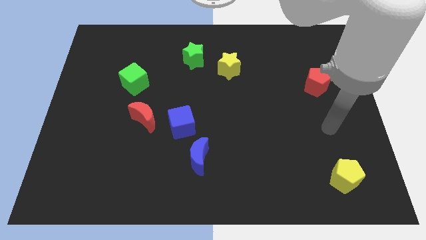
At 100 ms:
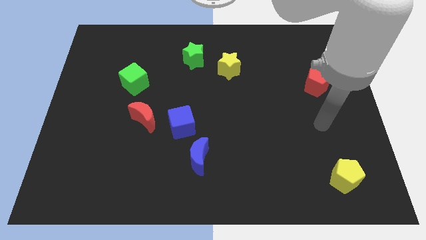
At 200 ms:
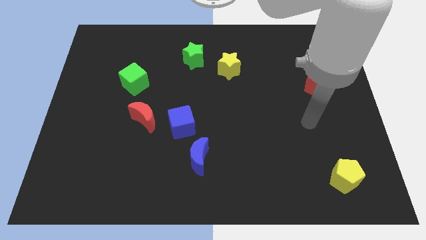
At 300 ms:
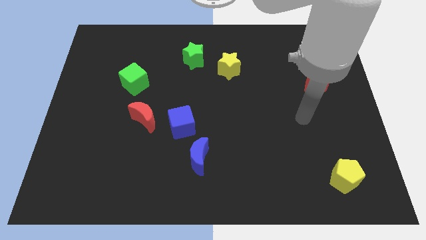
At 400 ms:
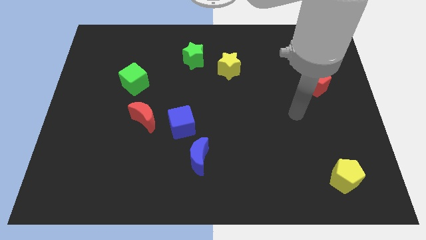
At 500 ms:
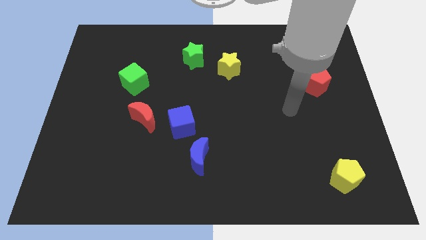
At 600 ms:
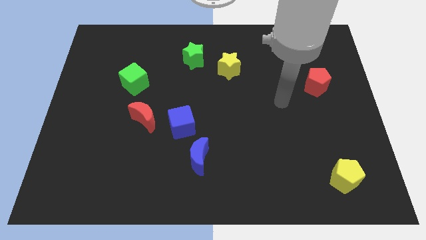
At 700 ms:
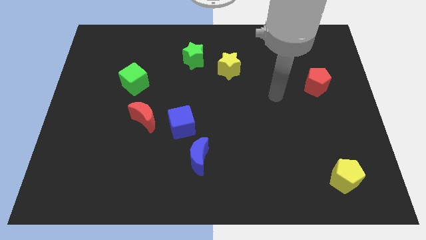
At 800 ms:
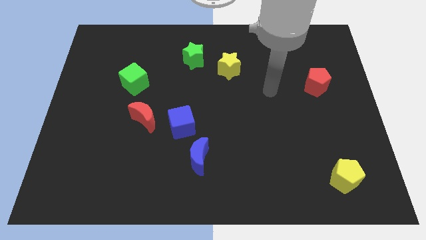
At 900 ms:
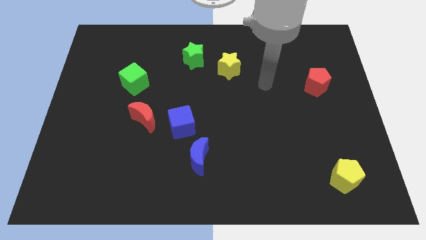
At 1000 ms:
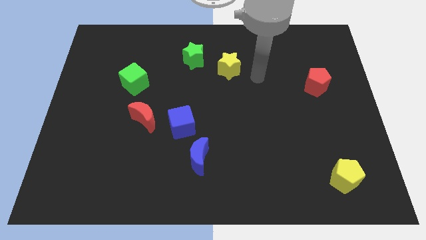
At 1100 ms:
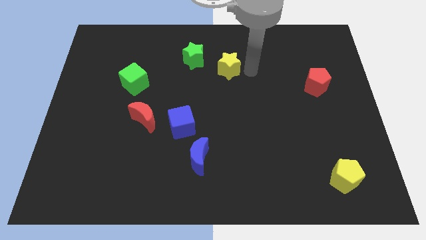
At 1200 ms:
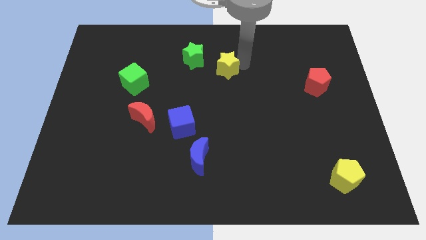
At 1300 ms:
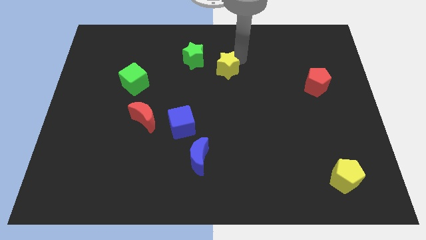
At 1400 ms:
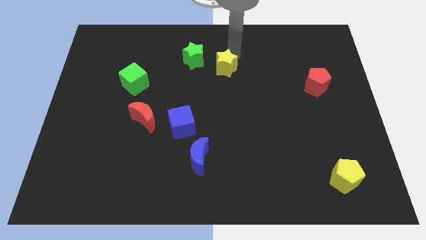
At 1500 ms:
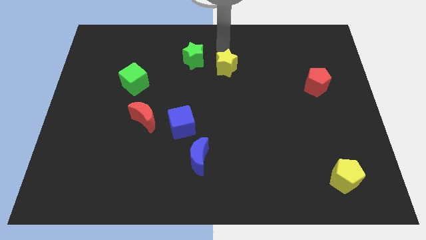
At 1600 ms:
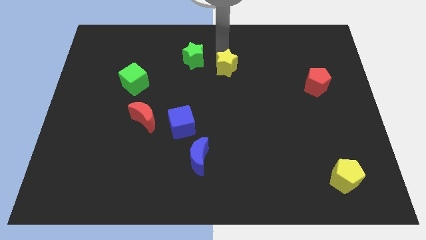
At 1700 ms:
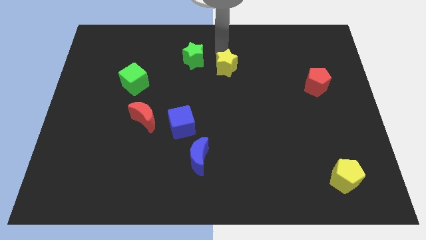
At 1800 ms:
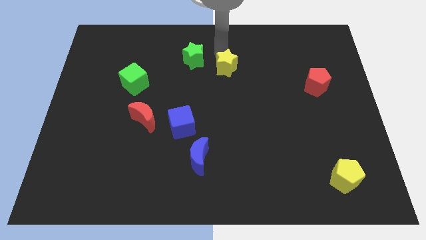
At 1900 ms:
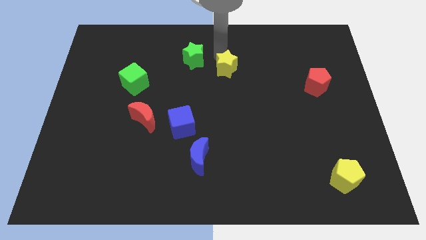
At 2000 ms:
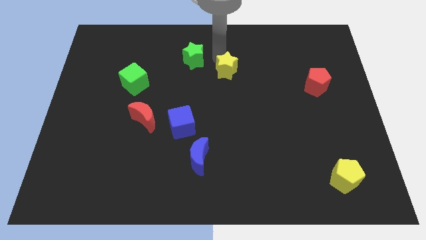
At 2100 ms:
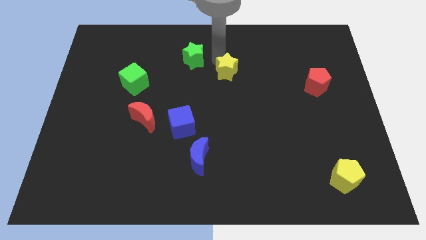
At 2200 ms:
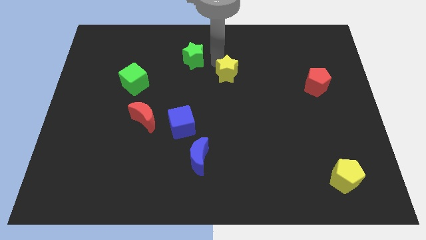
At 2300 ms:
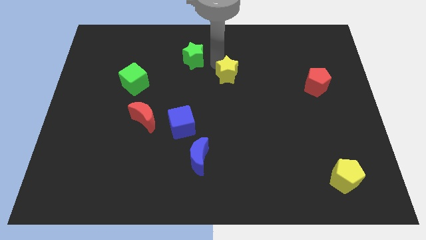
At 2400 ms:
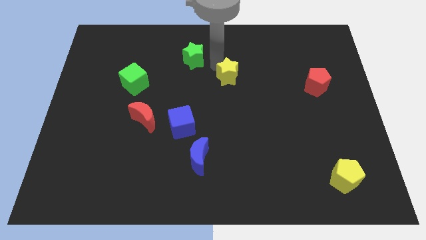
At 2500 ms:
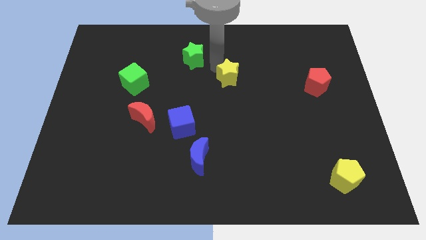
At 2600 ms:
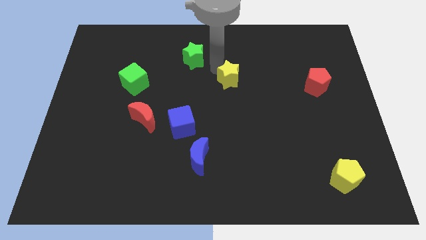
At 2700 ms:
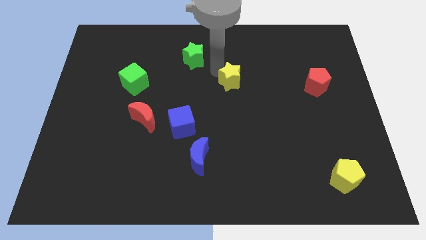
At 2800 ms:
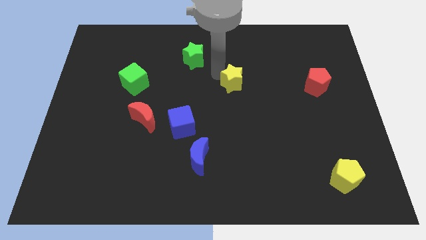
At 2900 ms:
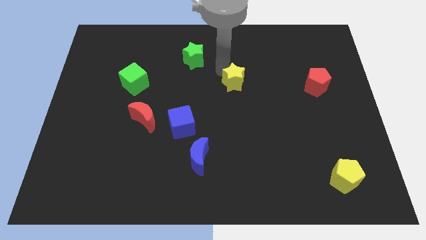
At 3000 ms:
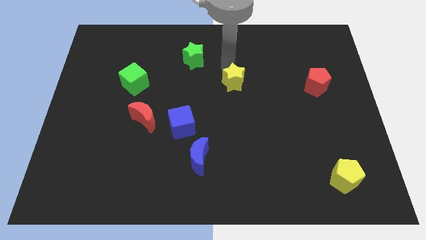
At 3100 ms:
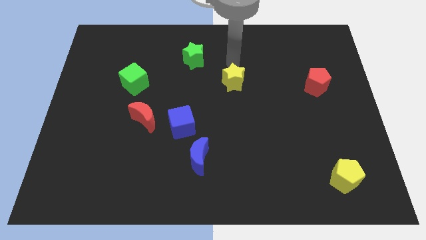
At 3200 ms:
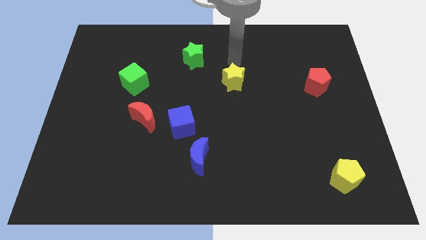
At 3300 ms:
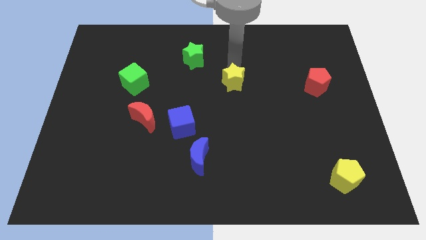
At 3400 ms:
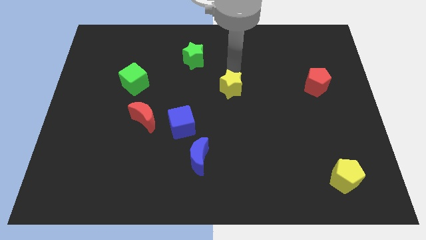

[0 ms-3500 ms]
slightly slide the yellow star down

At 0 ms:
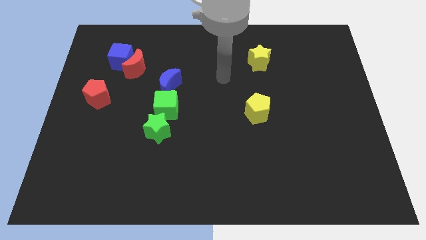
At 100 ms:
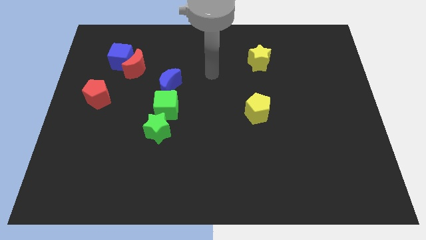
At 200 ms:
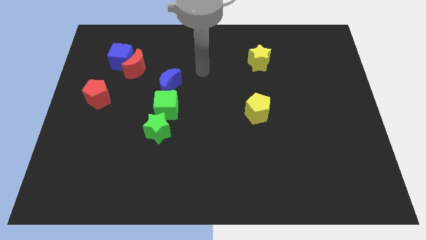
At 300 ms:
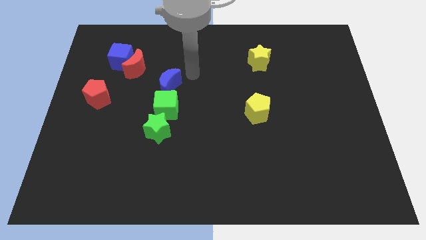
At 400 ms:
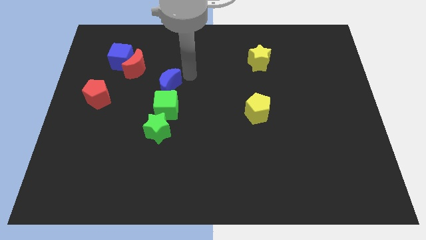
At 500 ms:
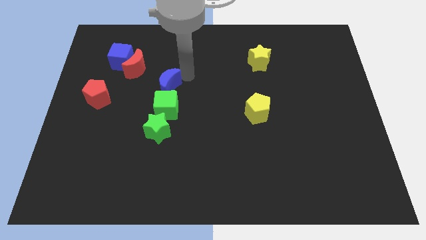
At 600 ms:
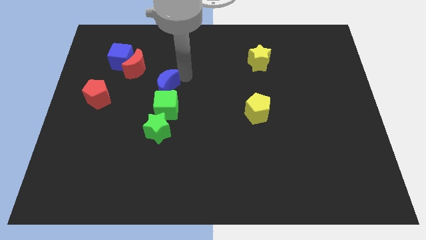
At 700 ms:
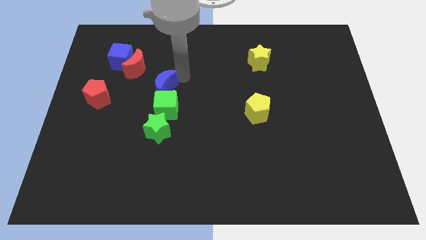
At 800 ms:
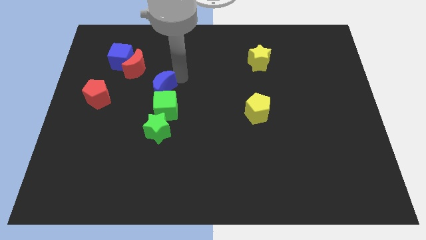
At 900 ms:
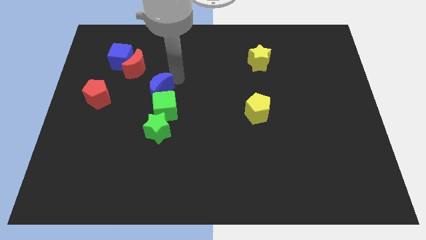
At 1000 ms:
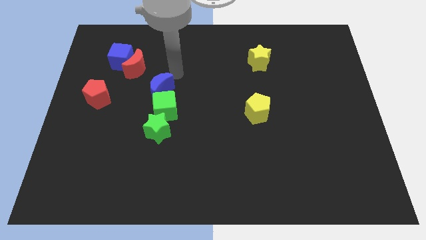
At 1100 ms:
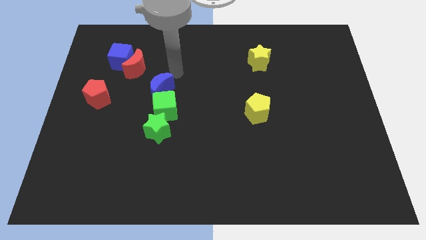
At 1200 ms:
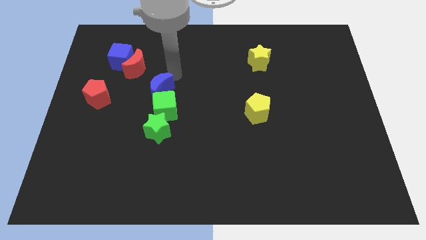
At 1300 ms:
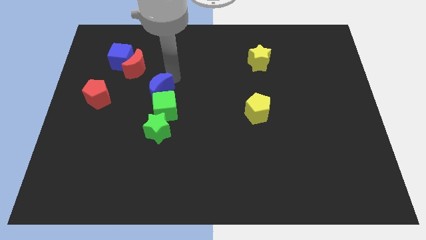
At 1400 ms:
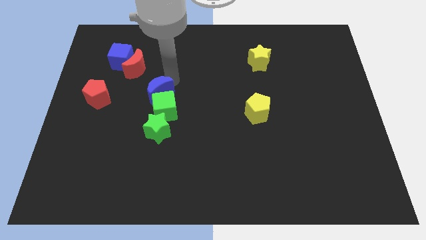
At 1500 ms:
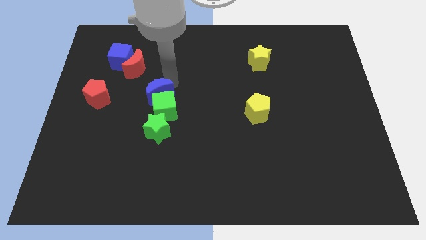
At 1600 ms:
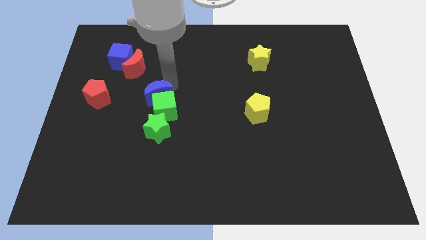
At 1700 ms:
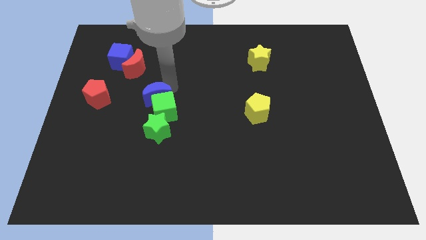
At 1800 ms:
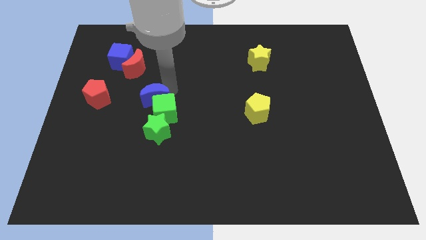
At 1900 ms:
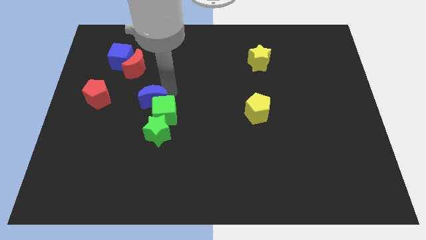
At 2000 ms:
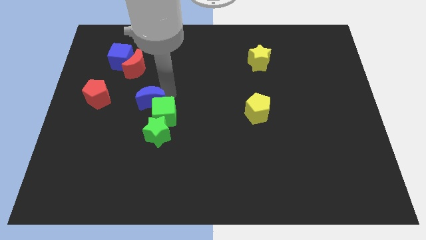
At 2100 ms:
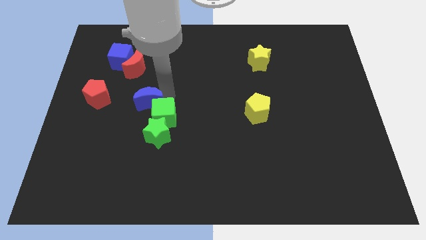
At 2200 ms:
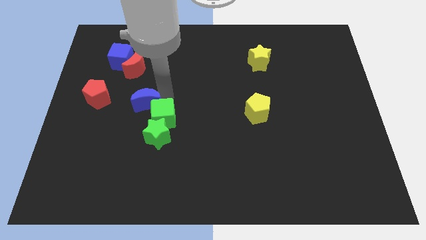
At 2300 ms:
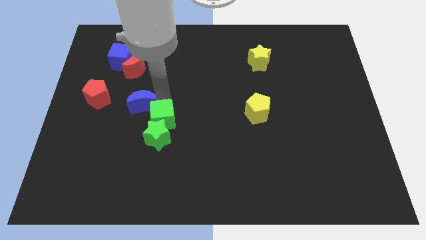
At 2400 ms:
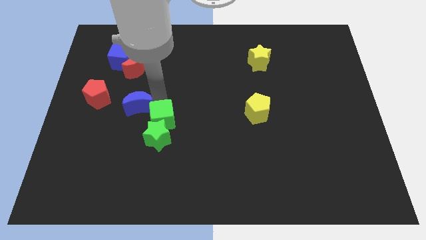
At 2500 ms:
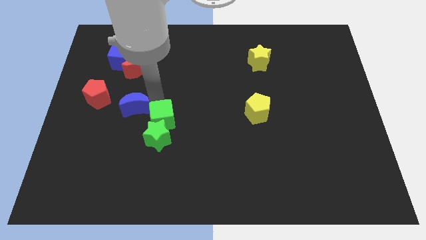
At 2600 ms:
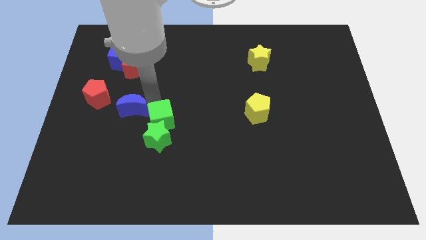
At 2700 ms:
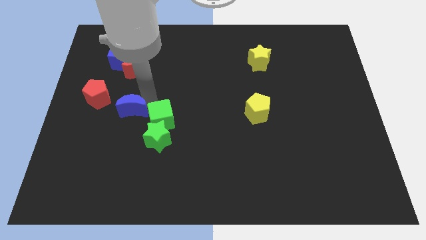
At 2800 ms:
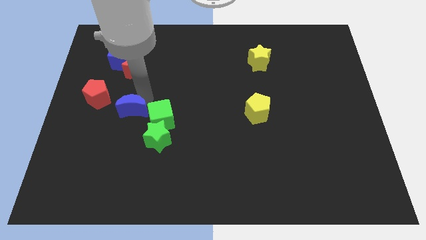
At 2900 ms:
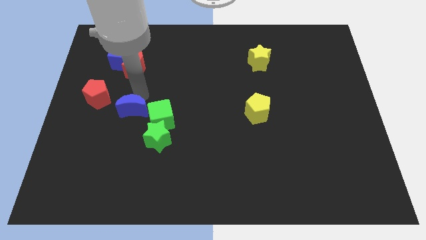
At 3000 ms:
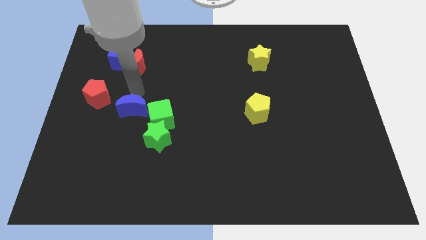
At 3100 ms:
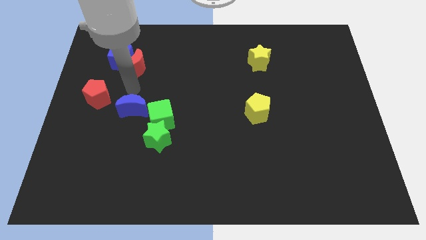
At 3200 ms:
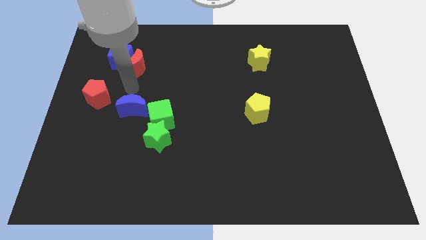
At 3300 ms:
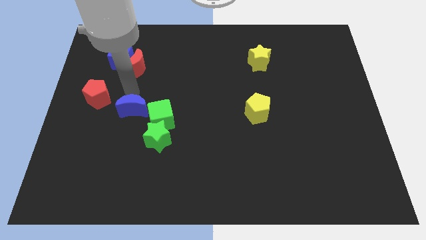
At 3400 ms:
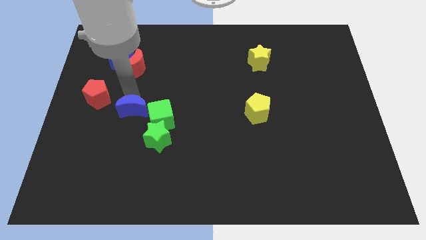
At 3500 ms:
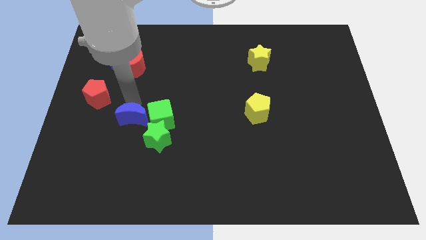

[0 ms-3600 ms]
slide the blue moon a little bit downwards

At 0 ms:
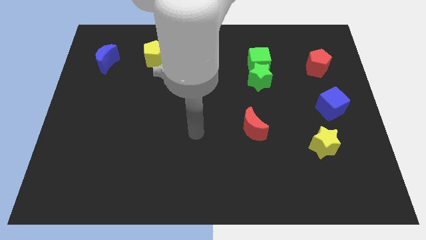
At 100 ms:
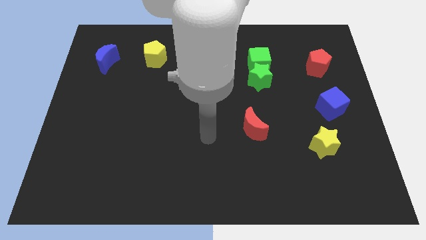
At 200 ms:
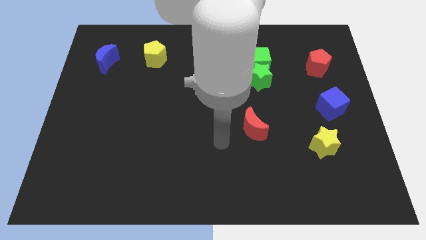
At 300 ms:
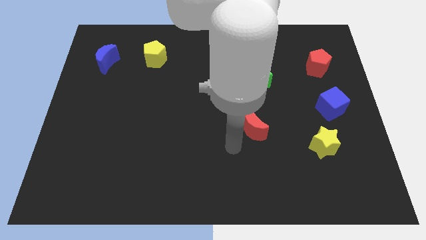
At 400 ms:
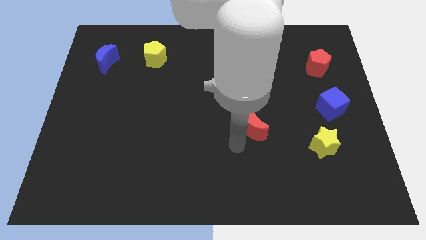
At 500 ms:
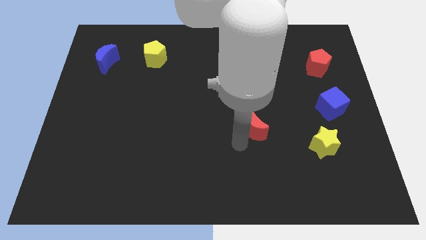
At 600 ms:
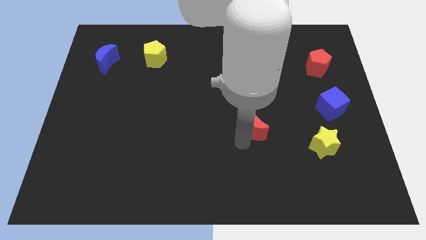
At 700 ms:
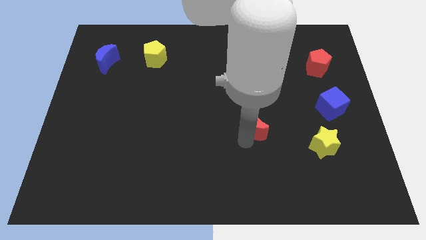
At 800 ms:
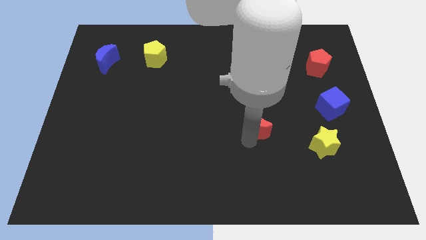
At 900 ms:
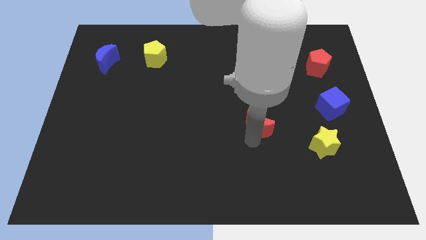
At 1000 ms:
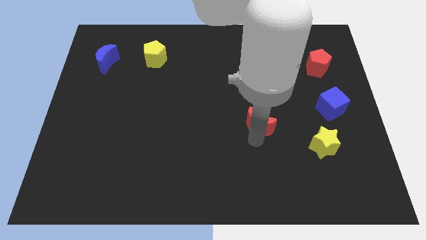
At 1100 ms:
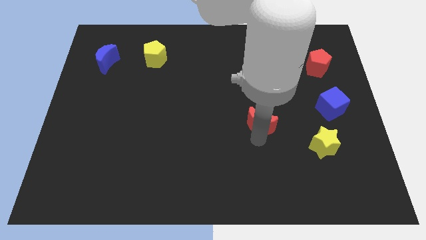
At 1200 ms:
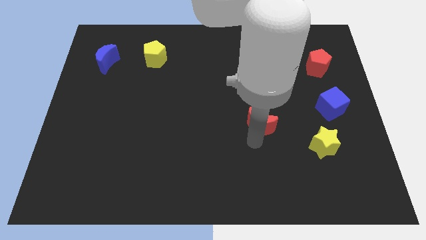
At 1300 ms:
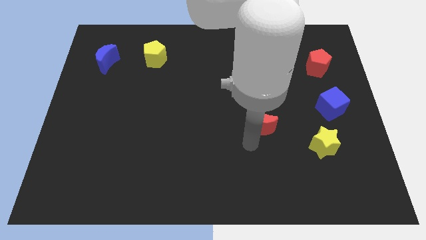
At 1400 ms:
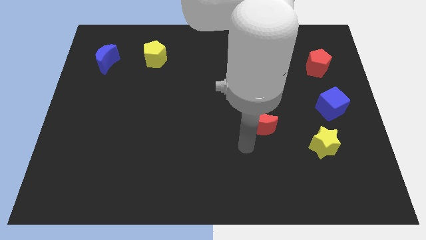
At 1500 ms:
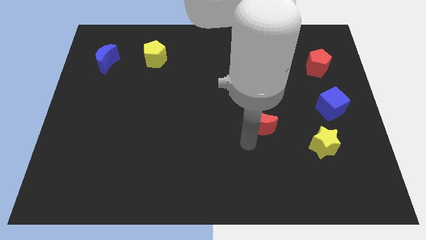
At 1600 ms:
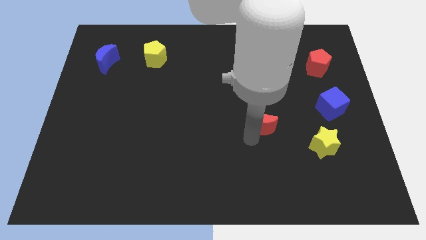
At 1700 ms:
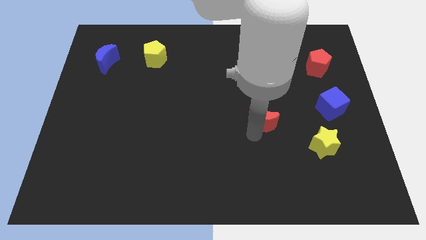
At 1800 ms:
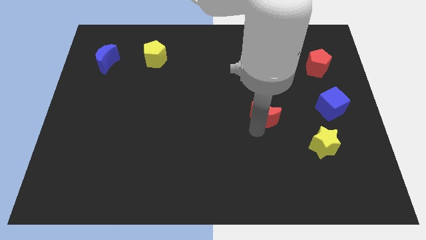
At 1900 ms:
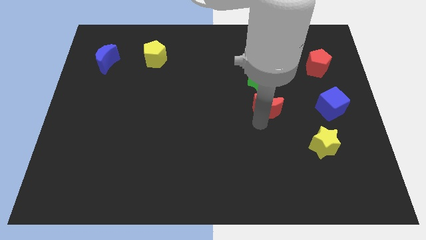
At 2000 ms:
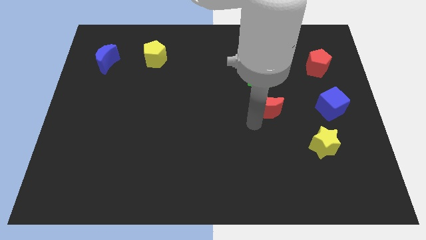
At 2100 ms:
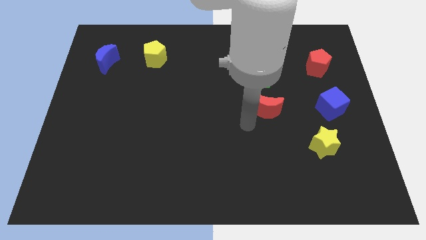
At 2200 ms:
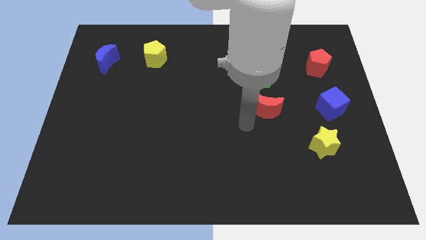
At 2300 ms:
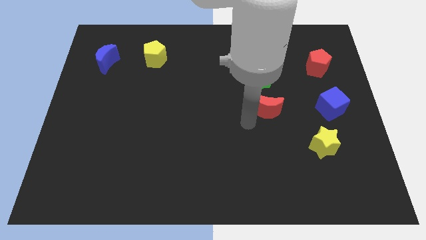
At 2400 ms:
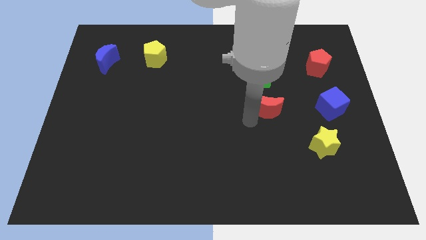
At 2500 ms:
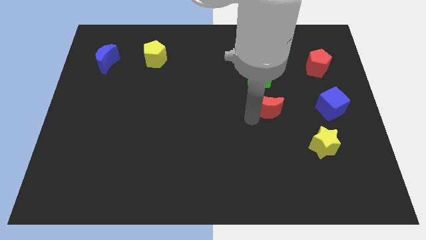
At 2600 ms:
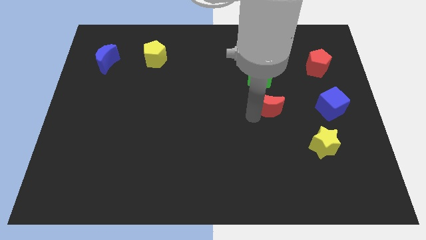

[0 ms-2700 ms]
slightly push the red moon up and then right
